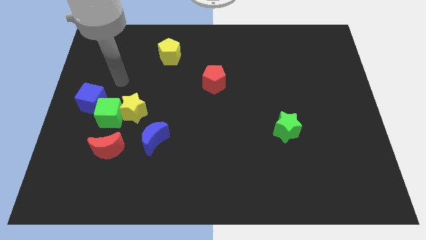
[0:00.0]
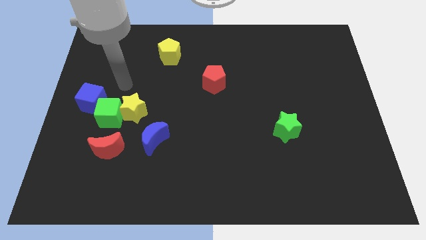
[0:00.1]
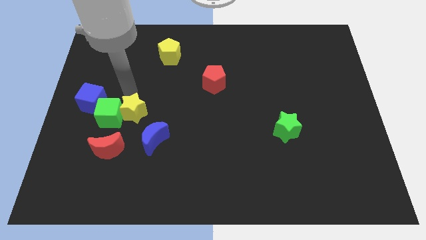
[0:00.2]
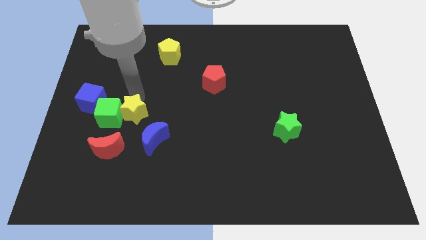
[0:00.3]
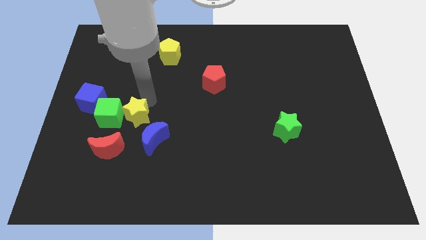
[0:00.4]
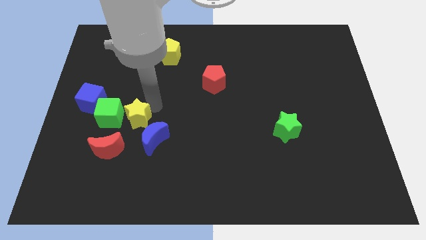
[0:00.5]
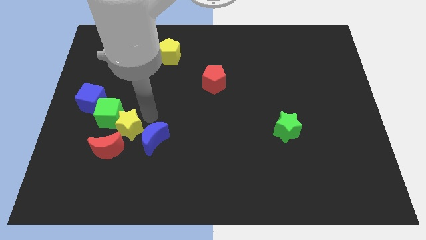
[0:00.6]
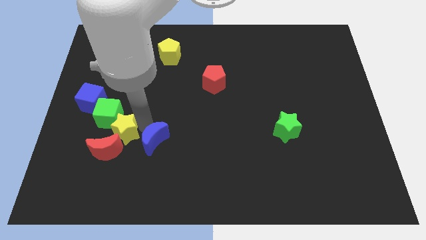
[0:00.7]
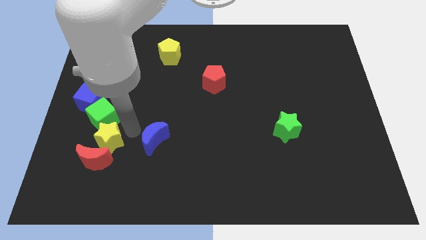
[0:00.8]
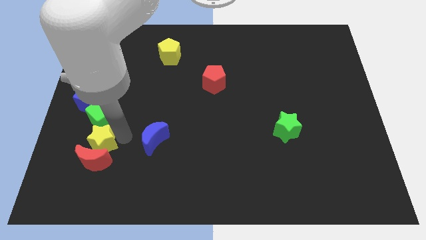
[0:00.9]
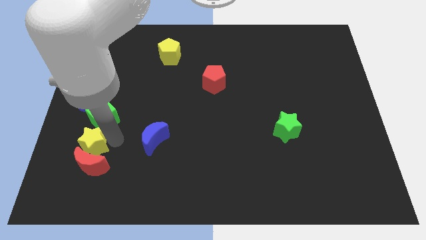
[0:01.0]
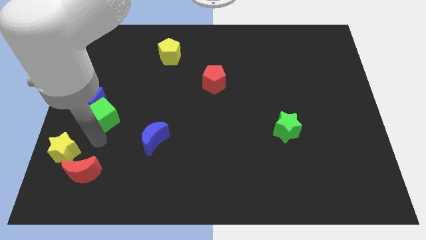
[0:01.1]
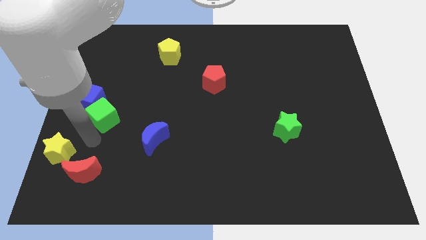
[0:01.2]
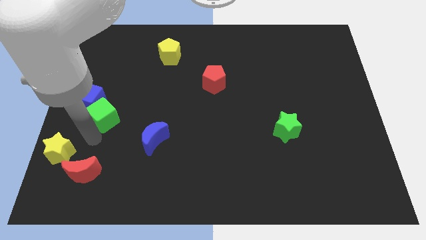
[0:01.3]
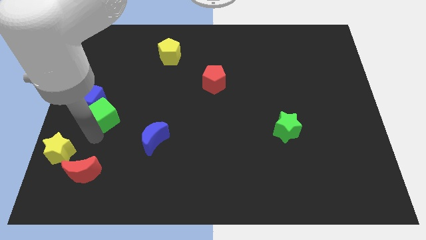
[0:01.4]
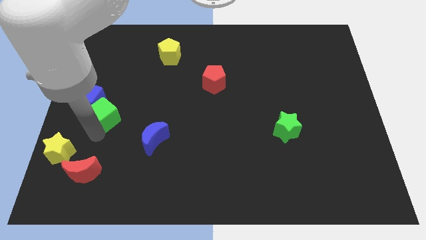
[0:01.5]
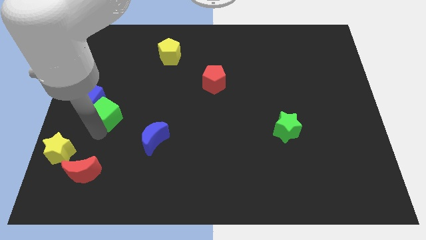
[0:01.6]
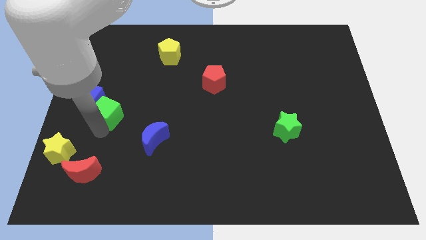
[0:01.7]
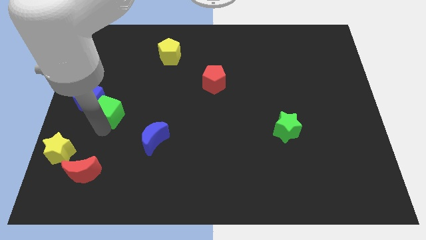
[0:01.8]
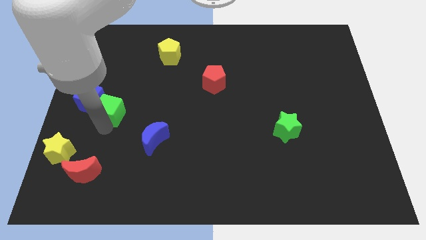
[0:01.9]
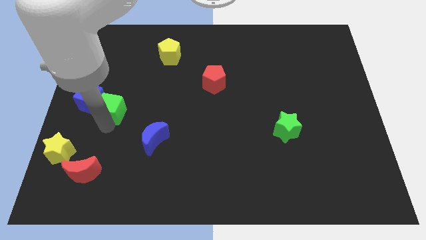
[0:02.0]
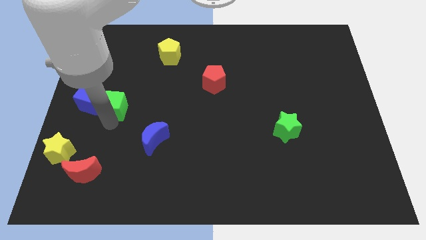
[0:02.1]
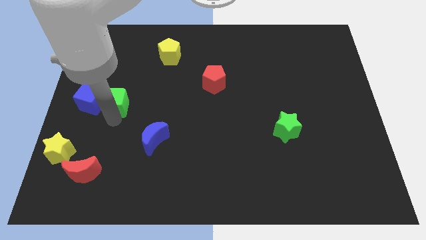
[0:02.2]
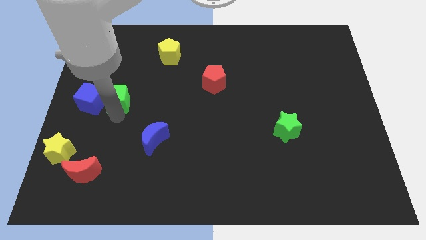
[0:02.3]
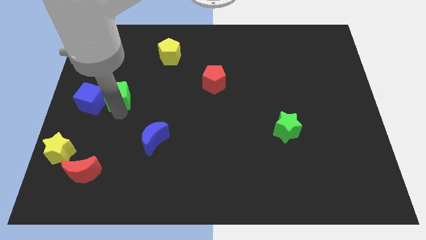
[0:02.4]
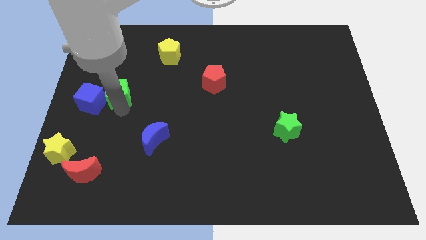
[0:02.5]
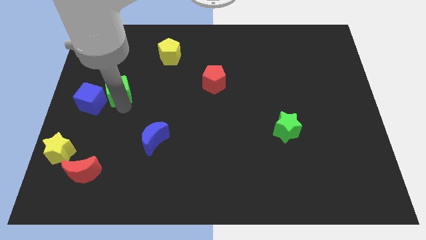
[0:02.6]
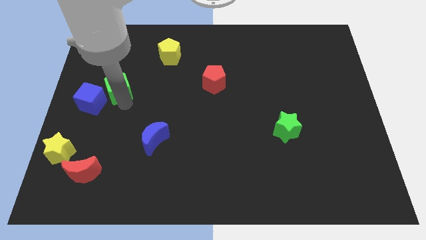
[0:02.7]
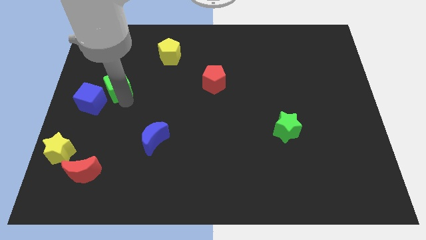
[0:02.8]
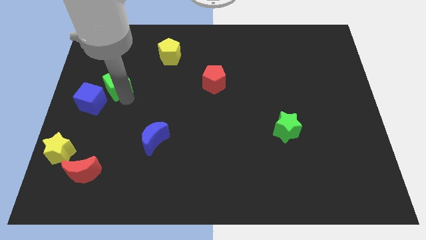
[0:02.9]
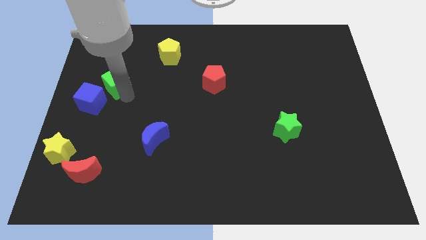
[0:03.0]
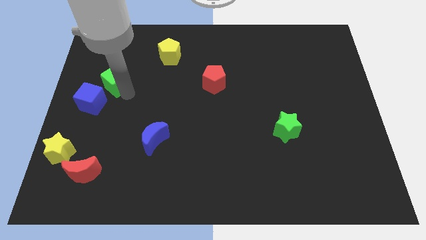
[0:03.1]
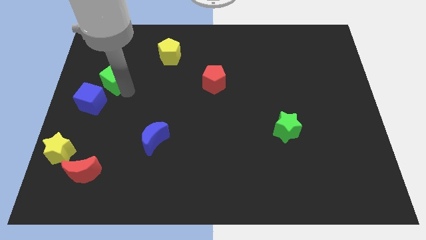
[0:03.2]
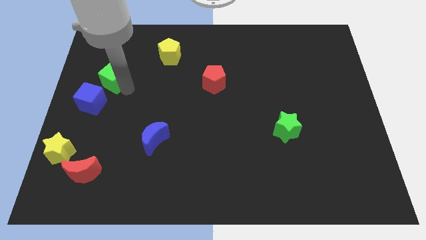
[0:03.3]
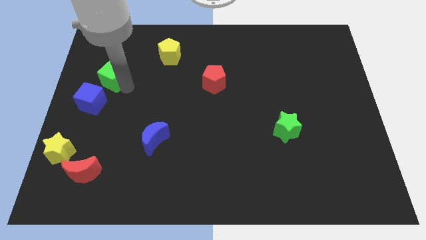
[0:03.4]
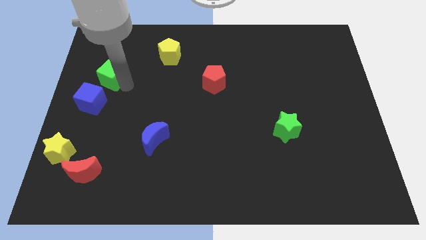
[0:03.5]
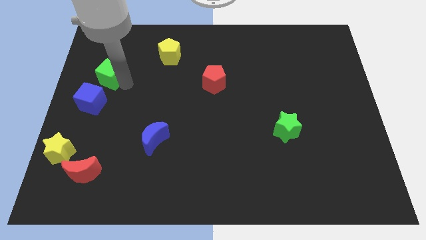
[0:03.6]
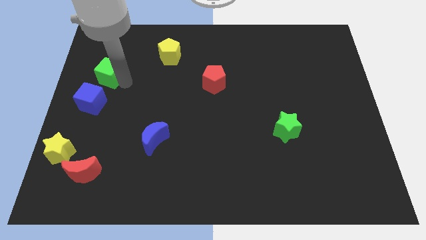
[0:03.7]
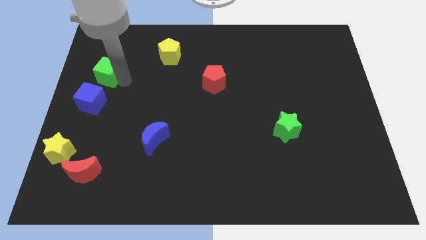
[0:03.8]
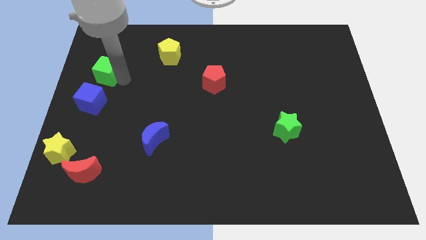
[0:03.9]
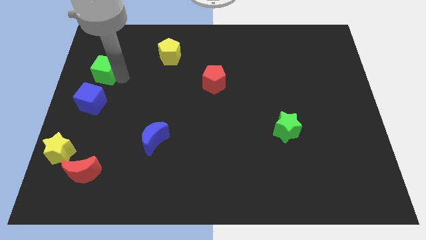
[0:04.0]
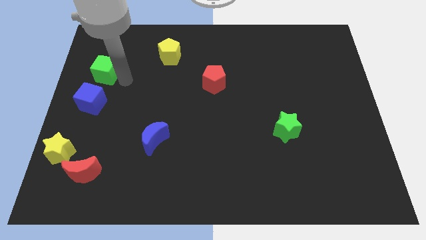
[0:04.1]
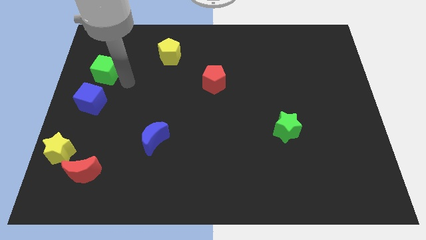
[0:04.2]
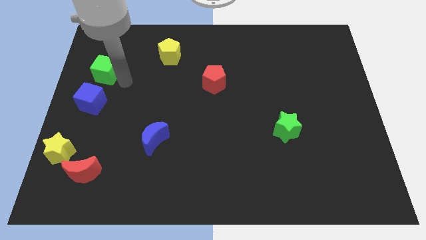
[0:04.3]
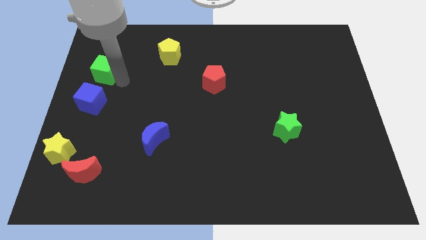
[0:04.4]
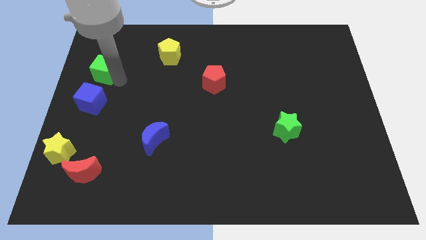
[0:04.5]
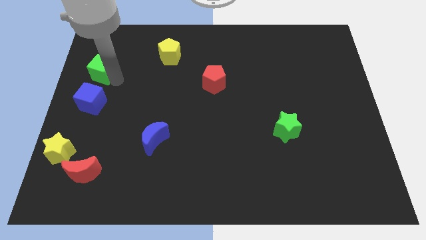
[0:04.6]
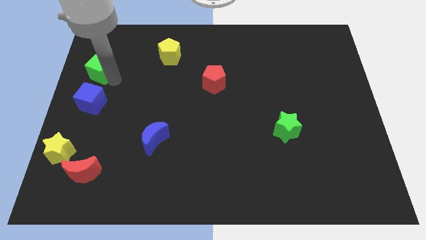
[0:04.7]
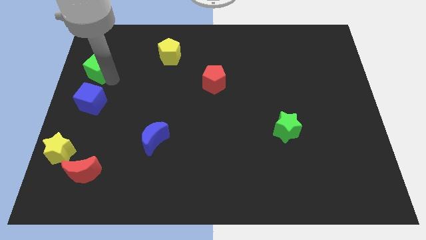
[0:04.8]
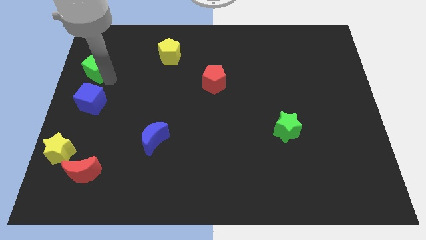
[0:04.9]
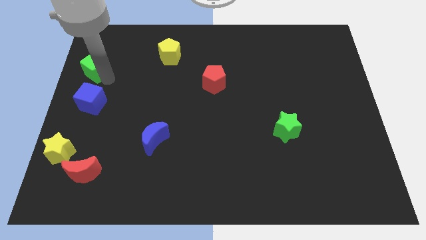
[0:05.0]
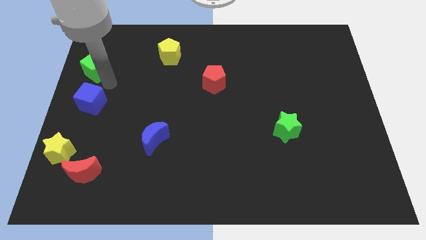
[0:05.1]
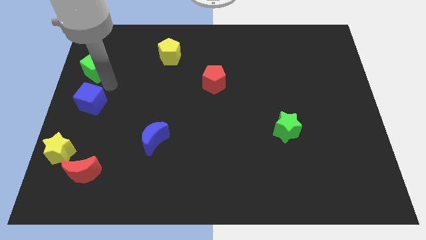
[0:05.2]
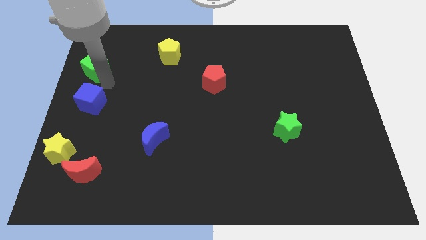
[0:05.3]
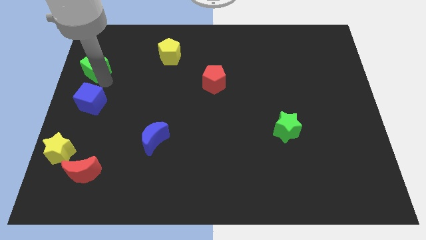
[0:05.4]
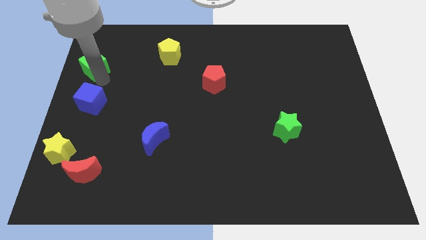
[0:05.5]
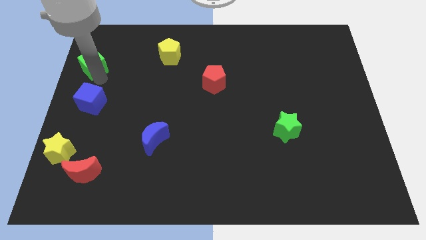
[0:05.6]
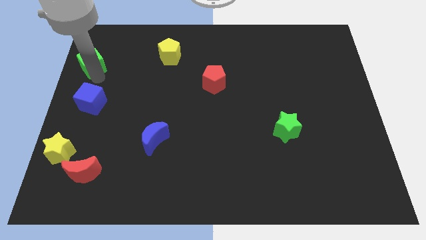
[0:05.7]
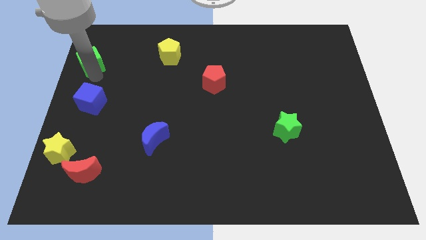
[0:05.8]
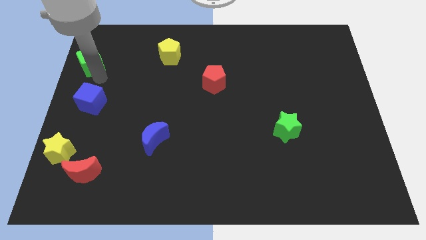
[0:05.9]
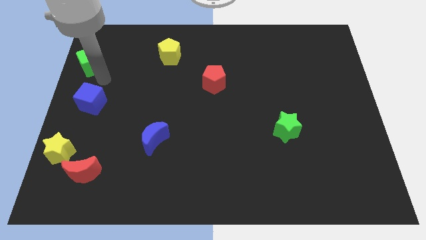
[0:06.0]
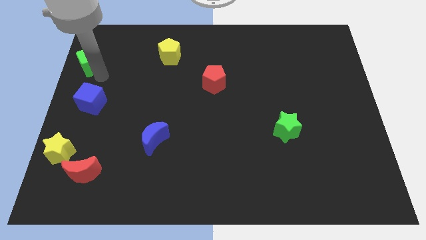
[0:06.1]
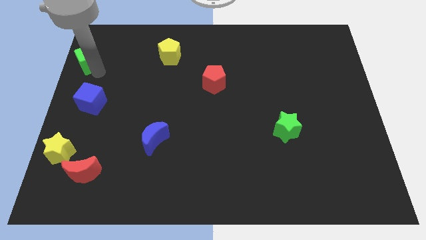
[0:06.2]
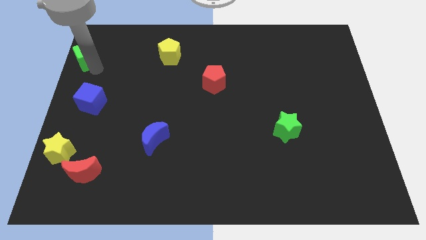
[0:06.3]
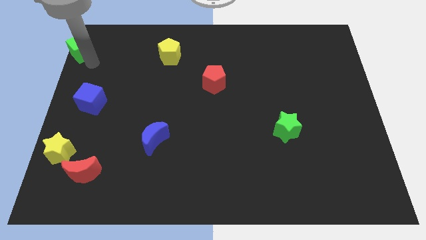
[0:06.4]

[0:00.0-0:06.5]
push the green cube to the upper left corner
